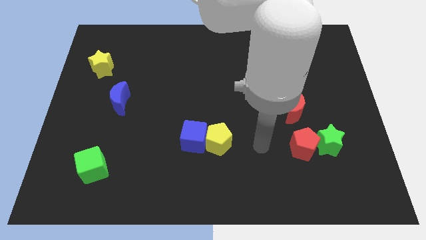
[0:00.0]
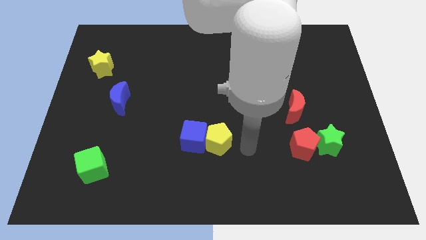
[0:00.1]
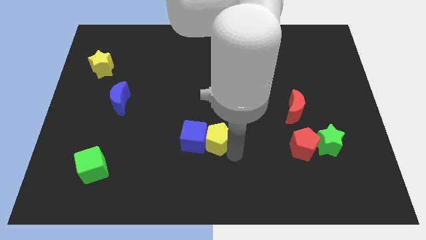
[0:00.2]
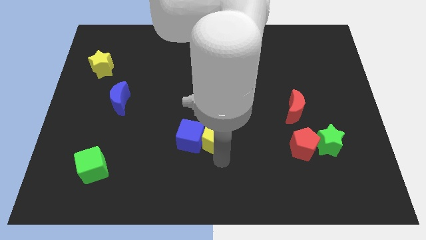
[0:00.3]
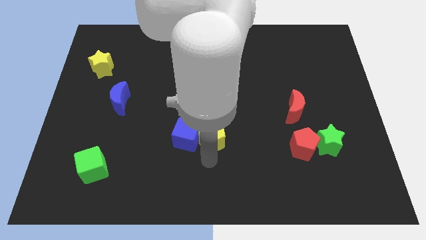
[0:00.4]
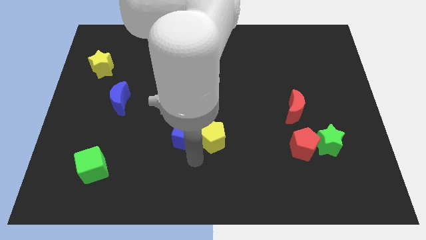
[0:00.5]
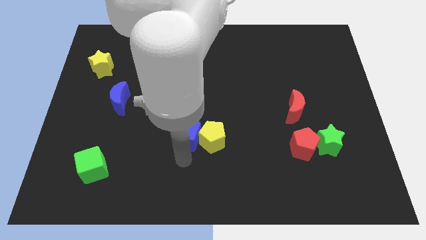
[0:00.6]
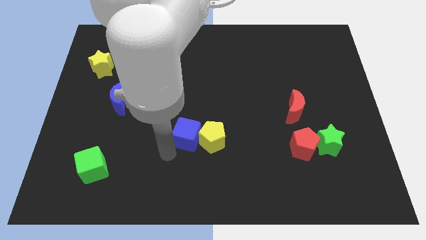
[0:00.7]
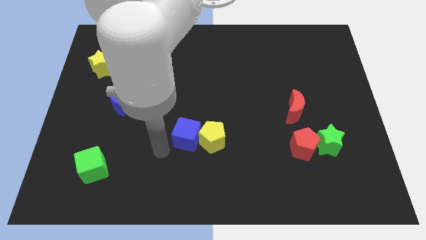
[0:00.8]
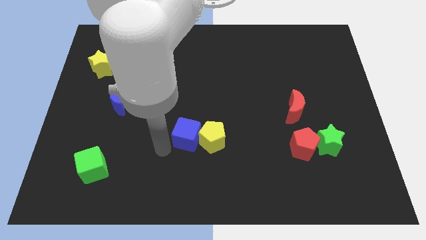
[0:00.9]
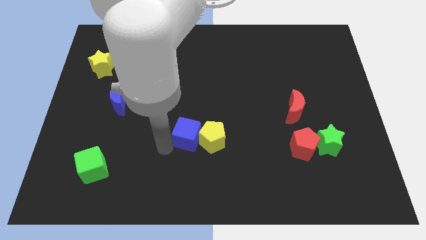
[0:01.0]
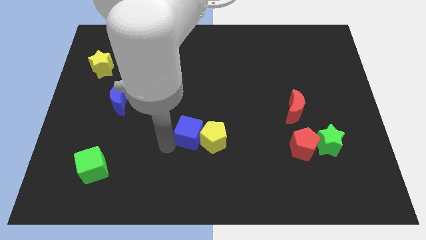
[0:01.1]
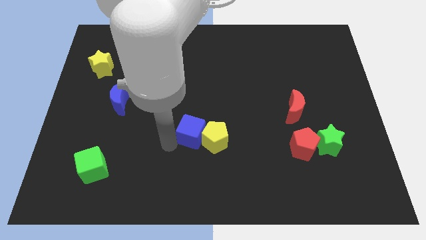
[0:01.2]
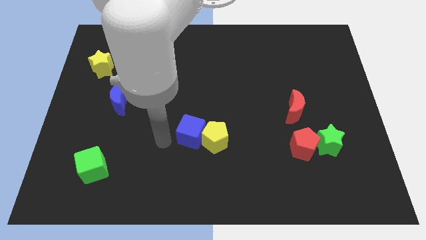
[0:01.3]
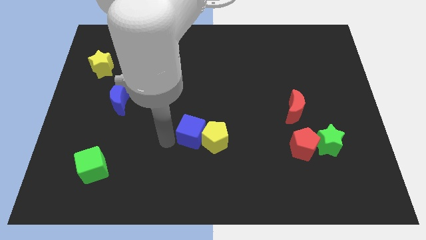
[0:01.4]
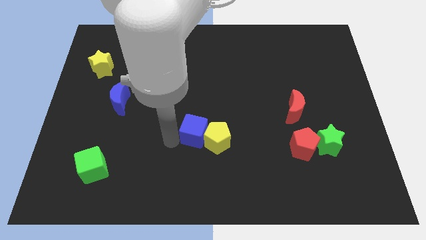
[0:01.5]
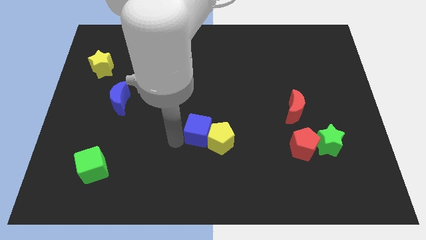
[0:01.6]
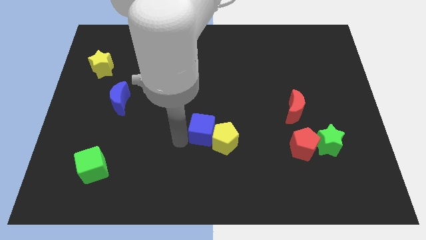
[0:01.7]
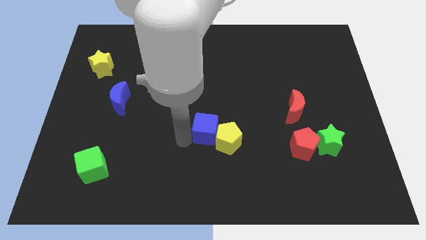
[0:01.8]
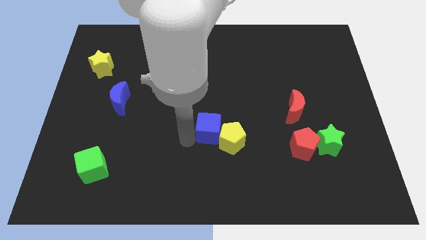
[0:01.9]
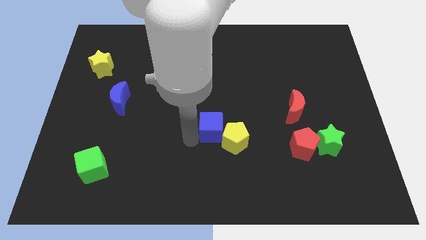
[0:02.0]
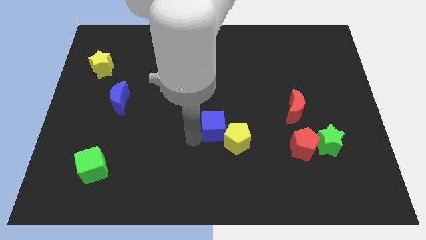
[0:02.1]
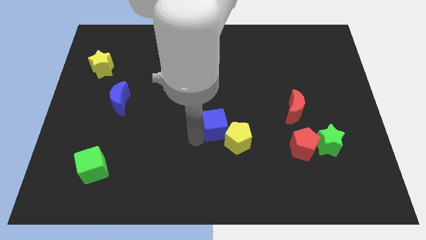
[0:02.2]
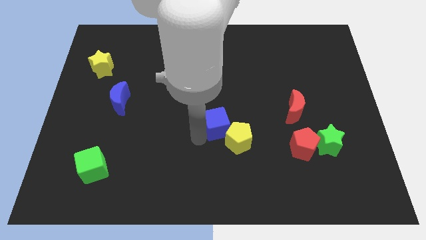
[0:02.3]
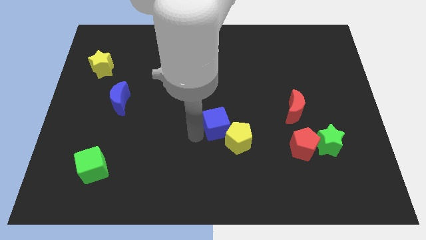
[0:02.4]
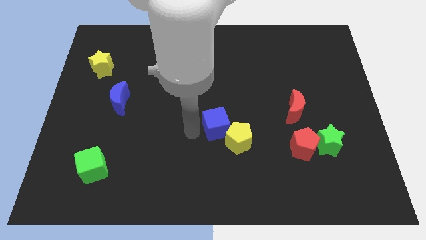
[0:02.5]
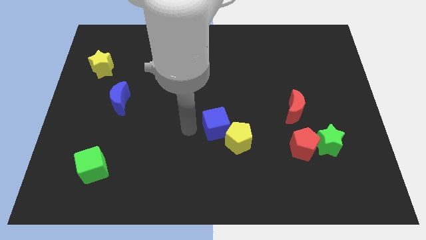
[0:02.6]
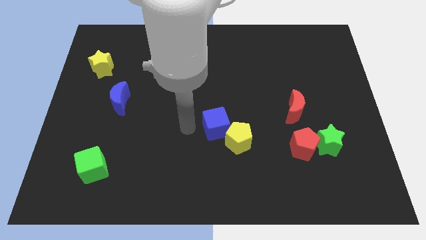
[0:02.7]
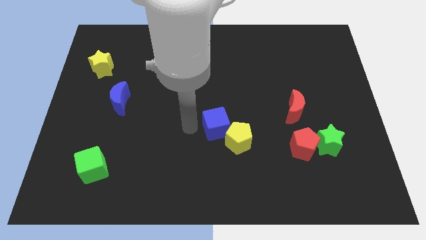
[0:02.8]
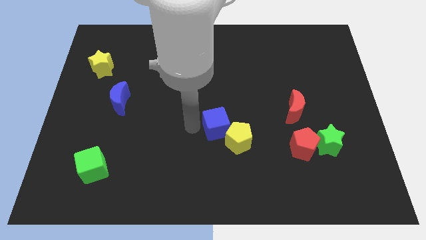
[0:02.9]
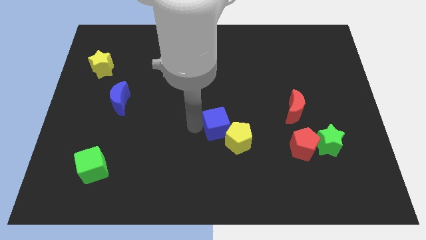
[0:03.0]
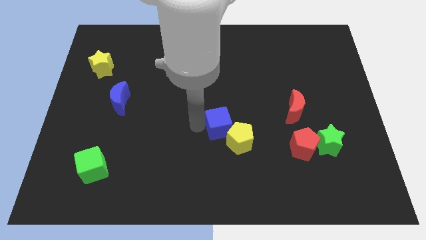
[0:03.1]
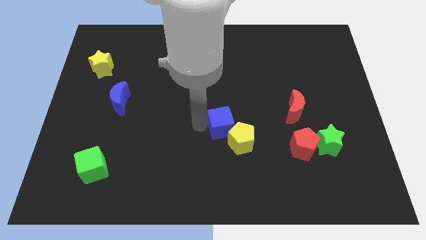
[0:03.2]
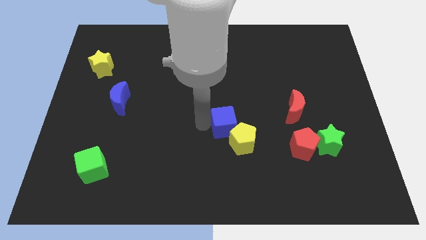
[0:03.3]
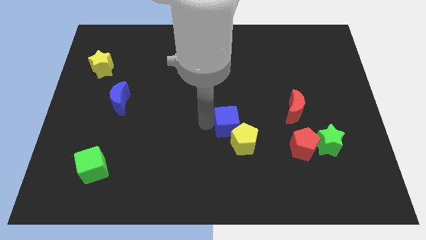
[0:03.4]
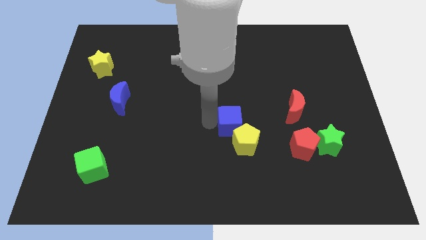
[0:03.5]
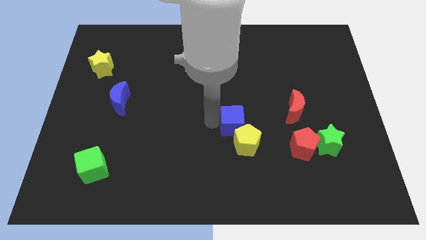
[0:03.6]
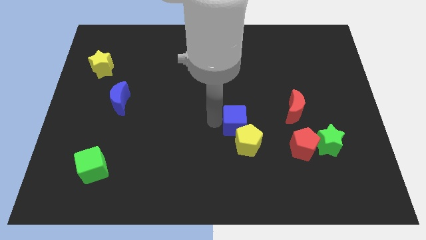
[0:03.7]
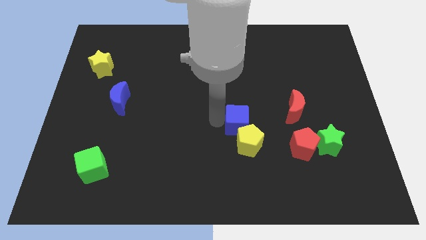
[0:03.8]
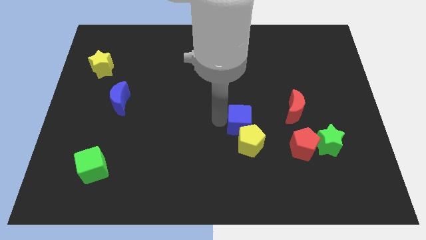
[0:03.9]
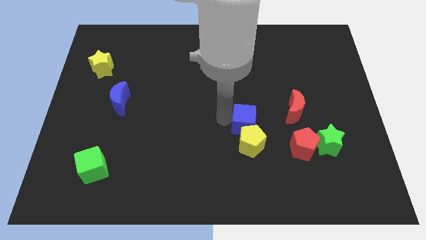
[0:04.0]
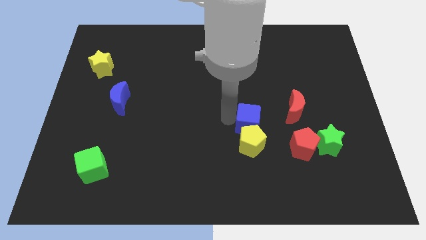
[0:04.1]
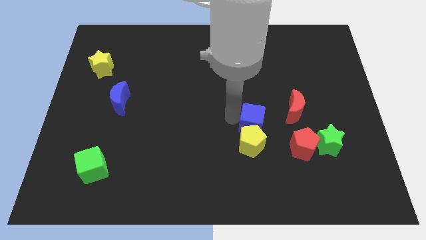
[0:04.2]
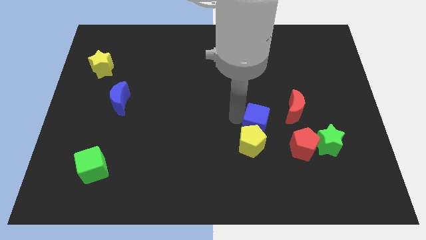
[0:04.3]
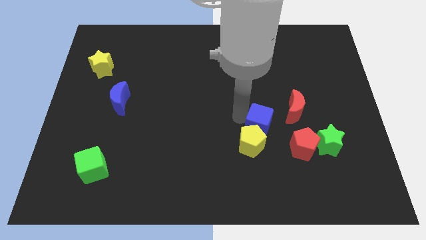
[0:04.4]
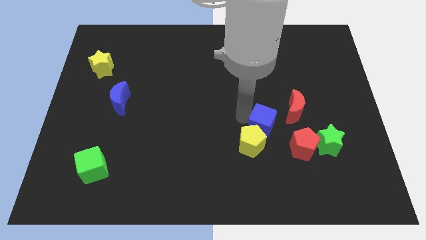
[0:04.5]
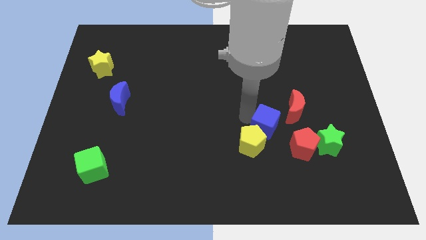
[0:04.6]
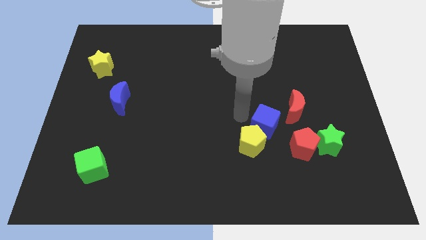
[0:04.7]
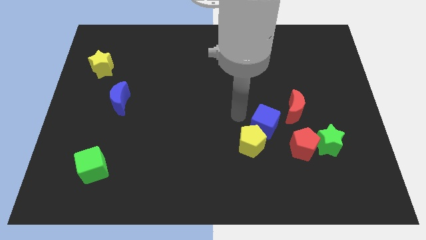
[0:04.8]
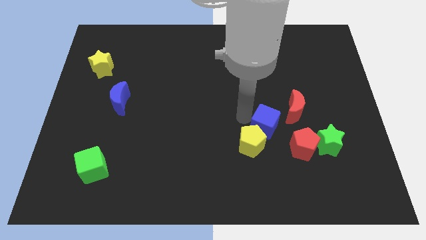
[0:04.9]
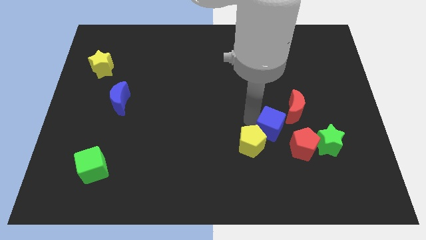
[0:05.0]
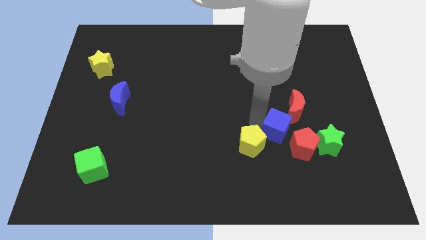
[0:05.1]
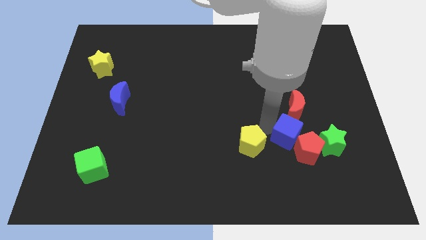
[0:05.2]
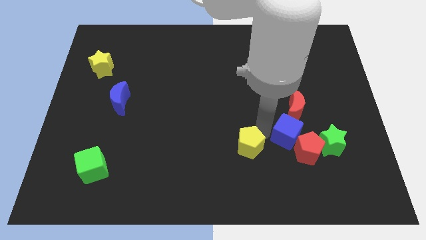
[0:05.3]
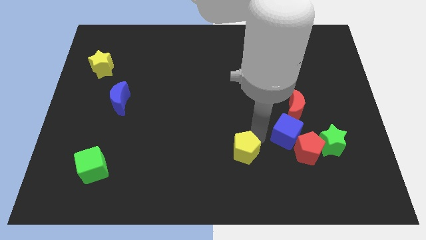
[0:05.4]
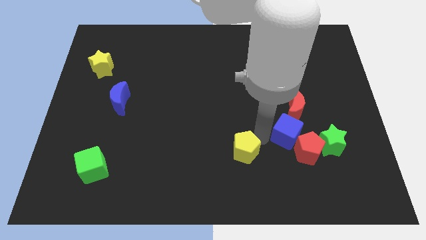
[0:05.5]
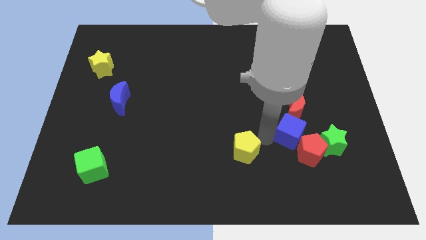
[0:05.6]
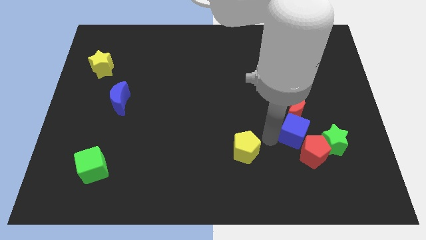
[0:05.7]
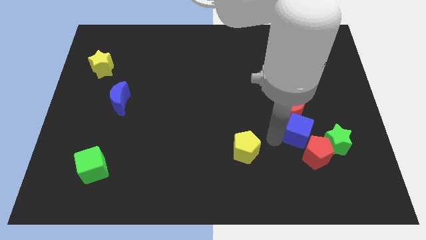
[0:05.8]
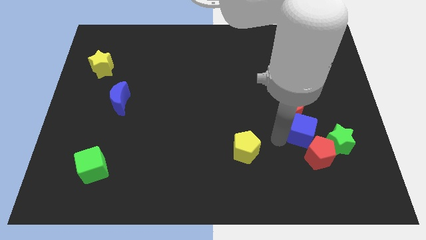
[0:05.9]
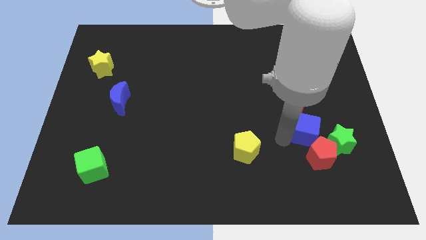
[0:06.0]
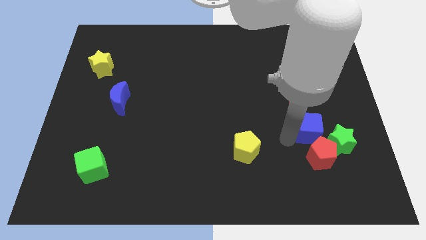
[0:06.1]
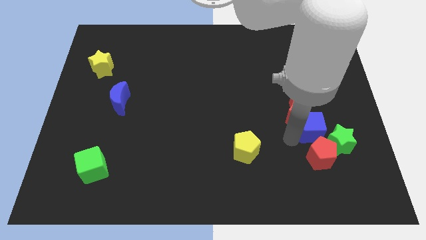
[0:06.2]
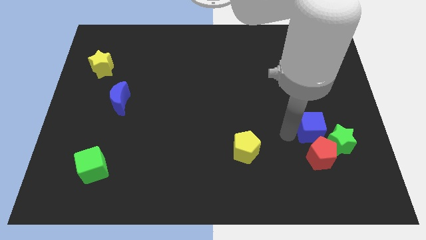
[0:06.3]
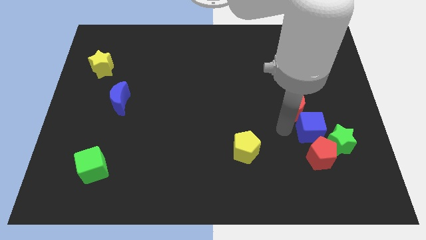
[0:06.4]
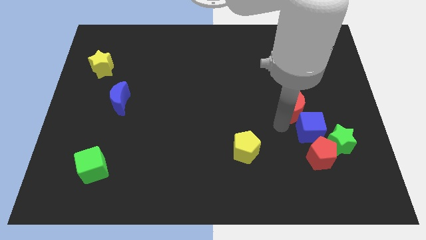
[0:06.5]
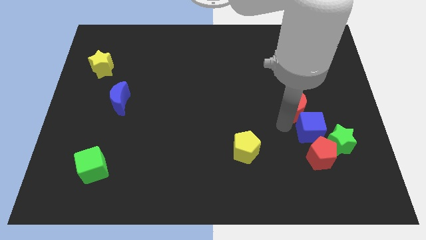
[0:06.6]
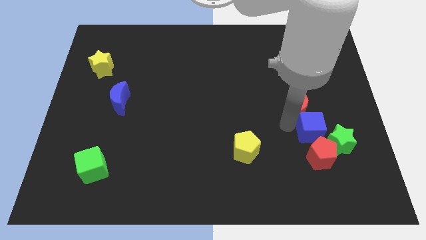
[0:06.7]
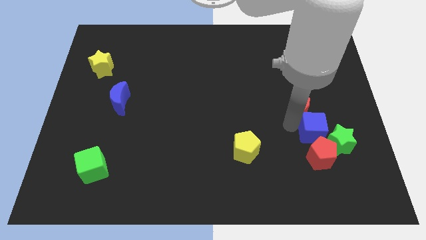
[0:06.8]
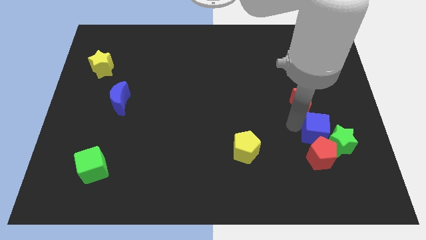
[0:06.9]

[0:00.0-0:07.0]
move the blue cube diagonally up and to the right of the red pentagon

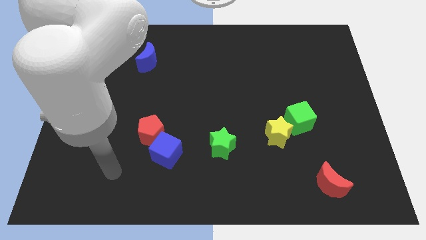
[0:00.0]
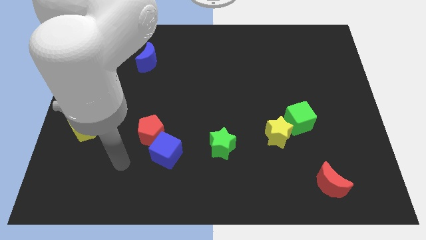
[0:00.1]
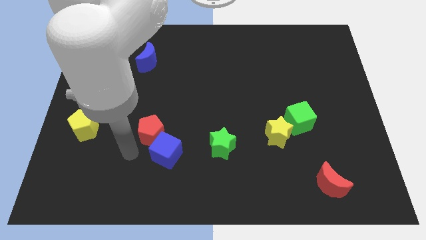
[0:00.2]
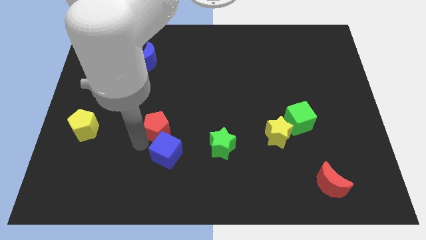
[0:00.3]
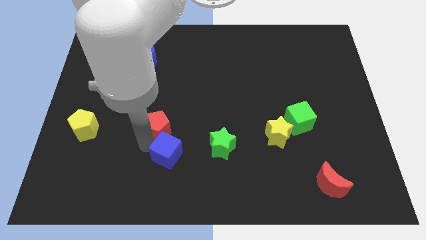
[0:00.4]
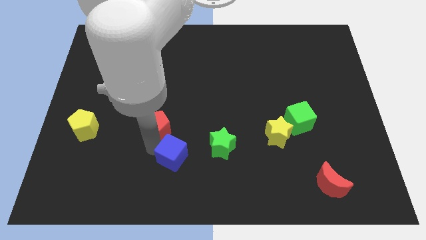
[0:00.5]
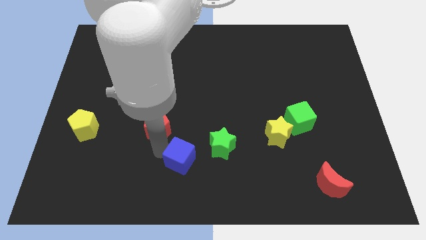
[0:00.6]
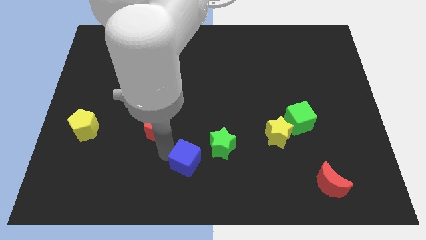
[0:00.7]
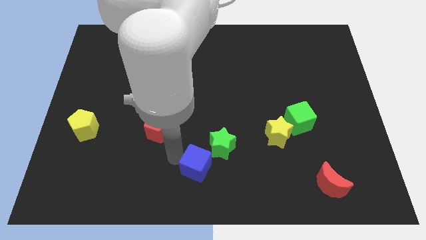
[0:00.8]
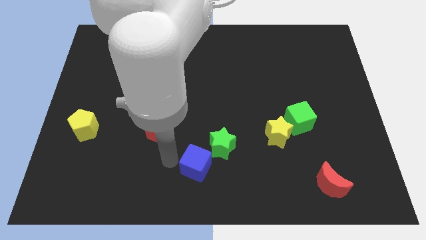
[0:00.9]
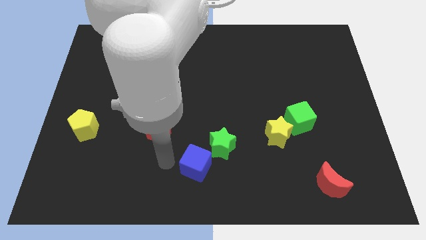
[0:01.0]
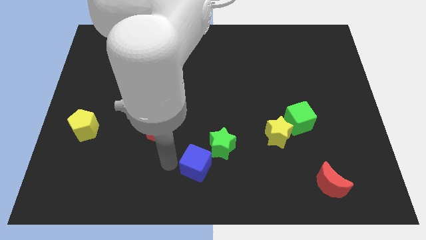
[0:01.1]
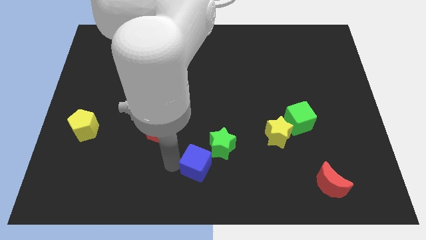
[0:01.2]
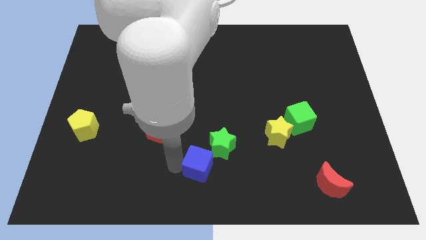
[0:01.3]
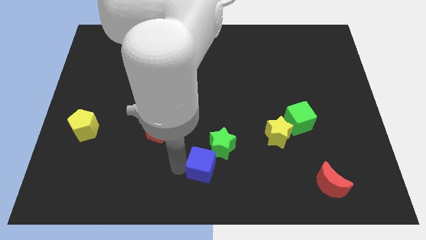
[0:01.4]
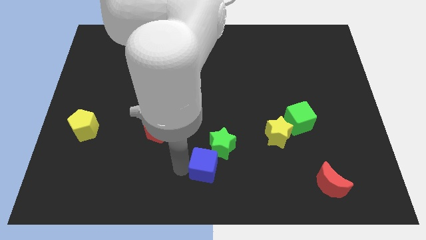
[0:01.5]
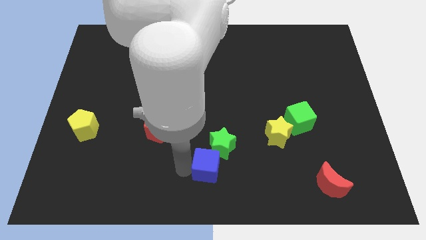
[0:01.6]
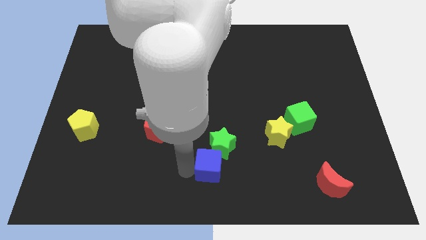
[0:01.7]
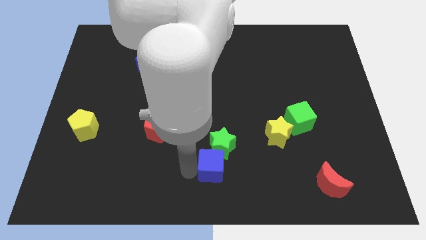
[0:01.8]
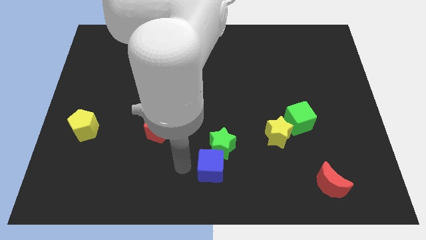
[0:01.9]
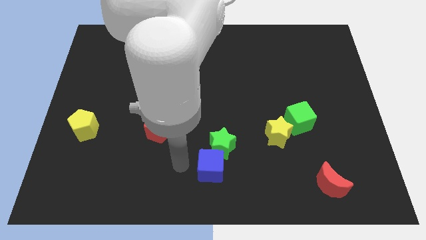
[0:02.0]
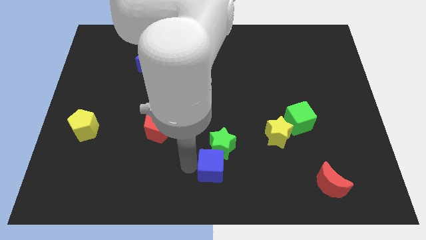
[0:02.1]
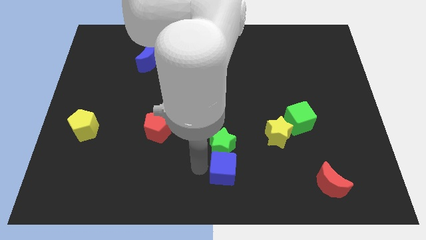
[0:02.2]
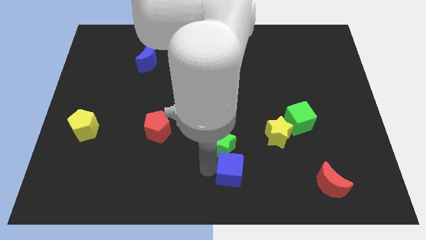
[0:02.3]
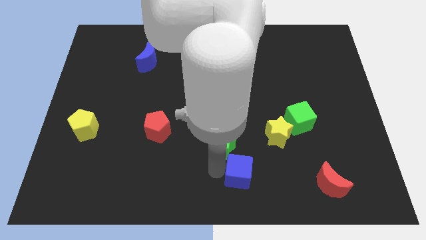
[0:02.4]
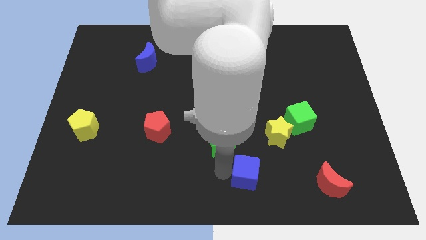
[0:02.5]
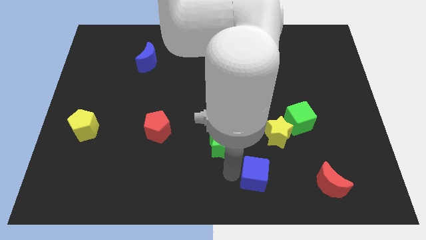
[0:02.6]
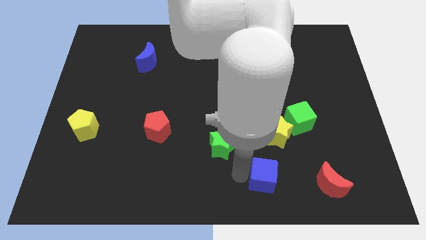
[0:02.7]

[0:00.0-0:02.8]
move the blue cube below the yellow star
